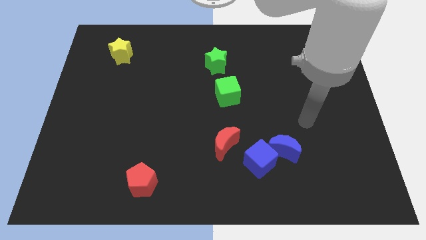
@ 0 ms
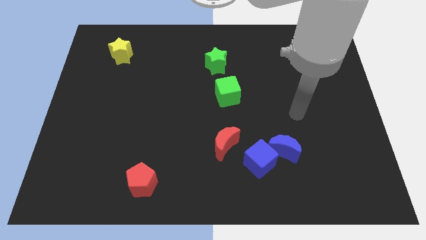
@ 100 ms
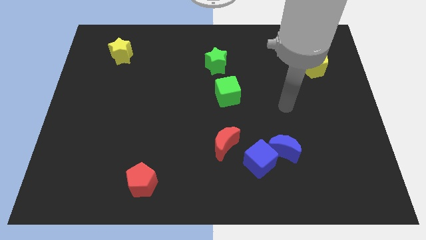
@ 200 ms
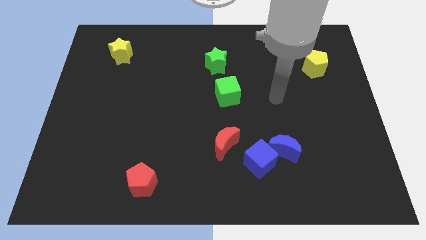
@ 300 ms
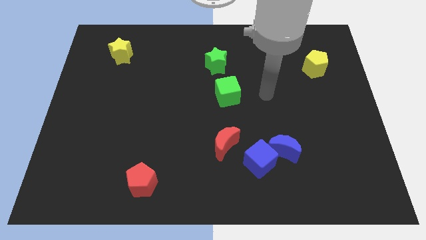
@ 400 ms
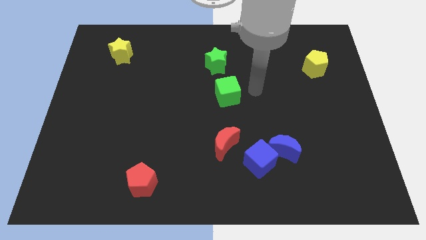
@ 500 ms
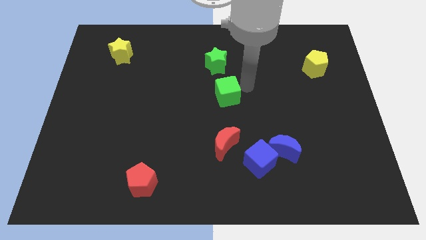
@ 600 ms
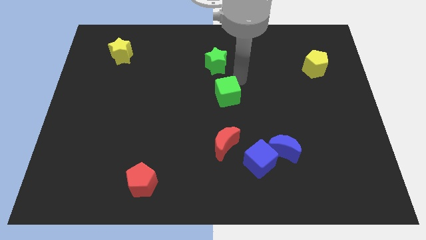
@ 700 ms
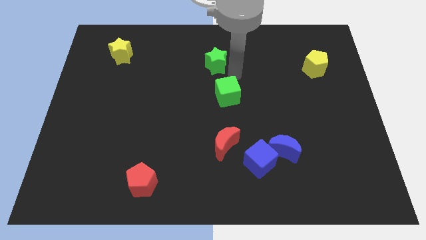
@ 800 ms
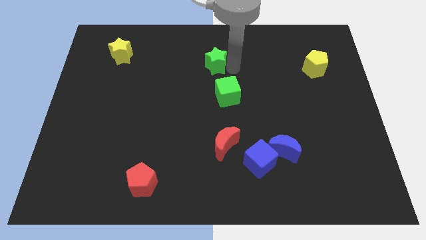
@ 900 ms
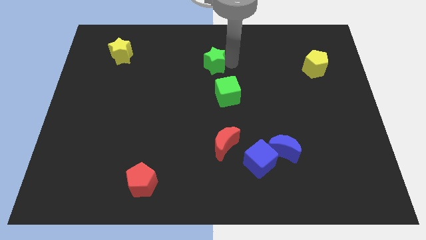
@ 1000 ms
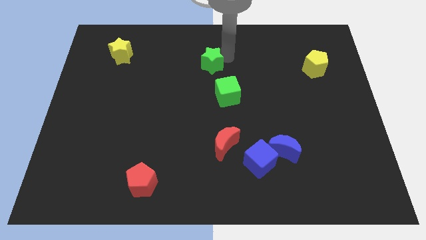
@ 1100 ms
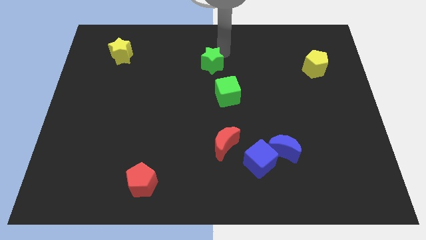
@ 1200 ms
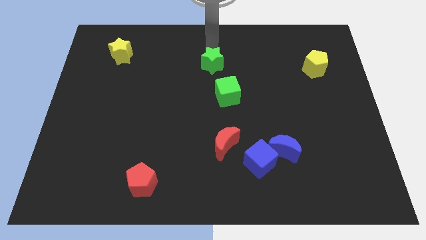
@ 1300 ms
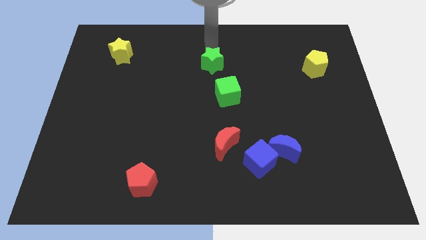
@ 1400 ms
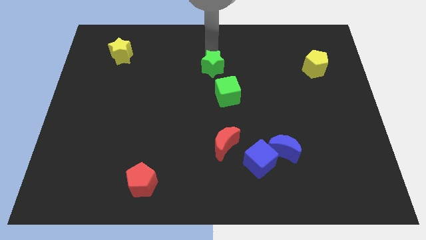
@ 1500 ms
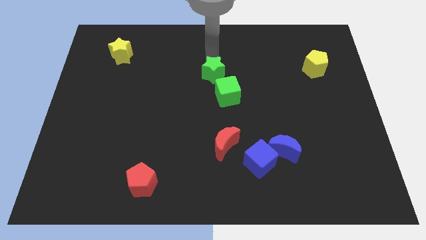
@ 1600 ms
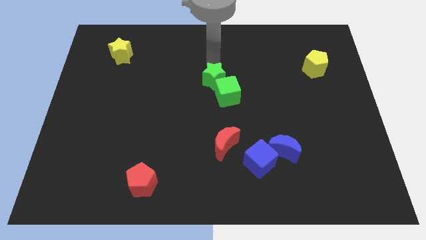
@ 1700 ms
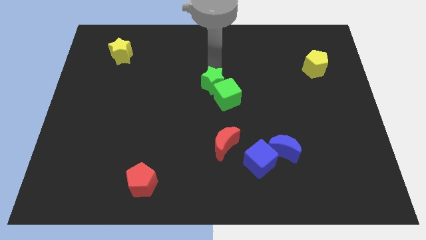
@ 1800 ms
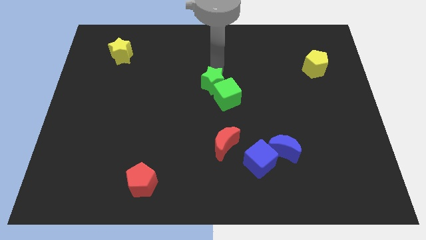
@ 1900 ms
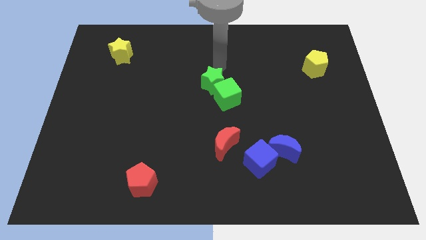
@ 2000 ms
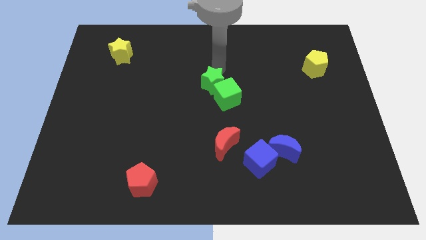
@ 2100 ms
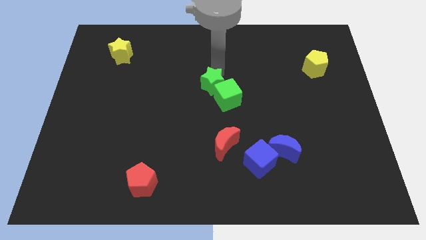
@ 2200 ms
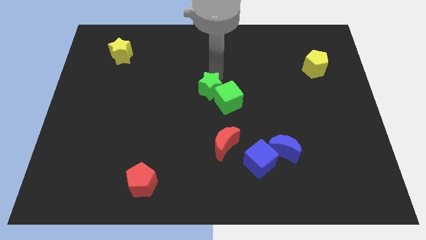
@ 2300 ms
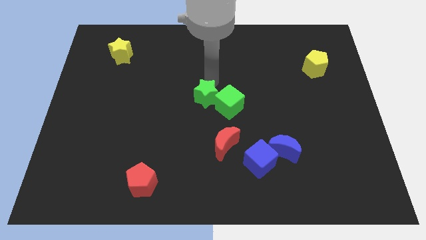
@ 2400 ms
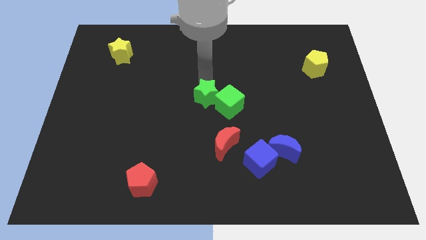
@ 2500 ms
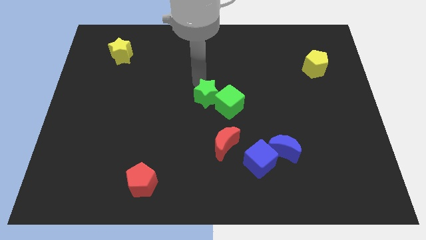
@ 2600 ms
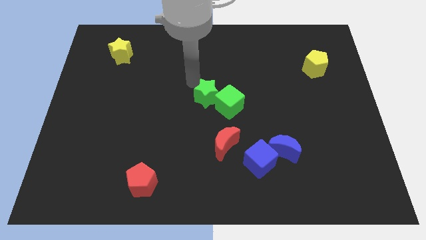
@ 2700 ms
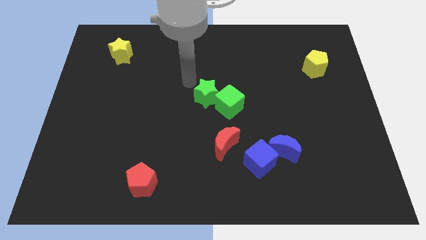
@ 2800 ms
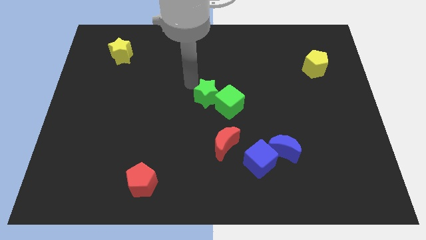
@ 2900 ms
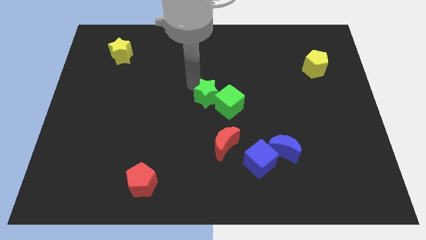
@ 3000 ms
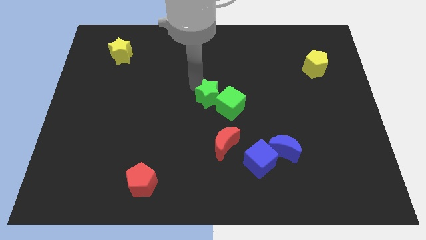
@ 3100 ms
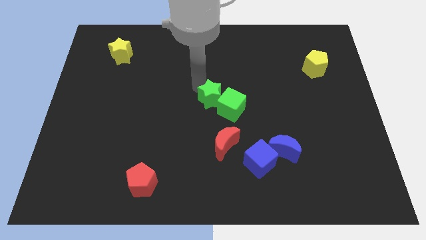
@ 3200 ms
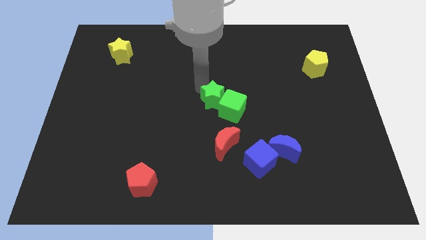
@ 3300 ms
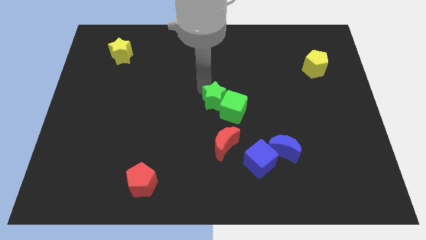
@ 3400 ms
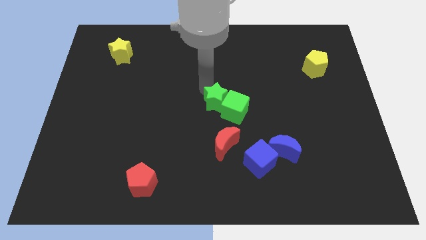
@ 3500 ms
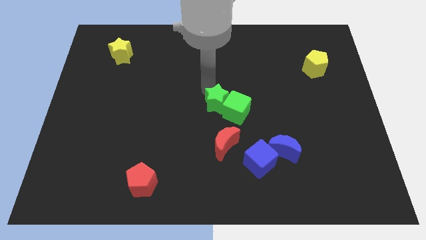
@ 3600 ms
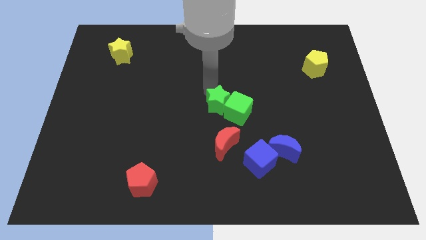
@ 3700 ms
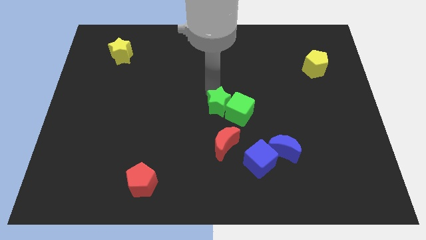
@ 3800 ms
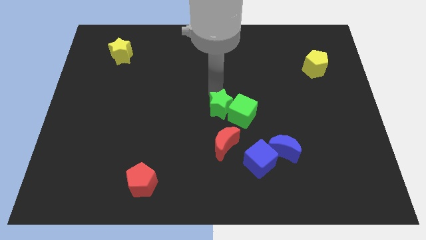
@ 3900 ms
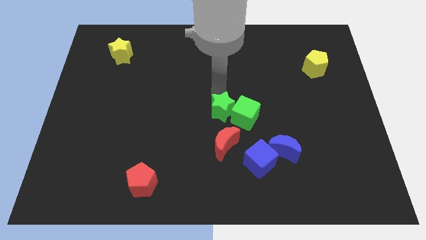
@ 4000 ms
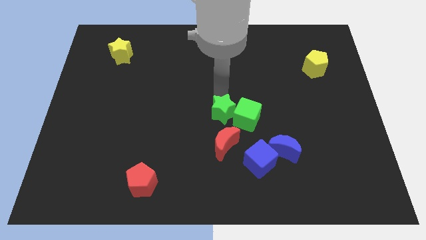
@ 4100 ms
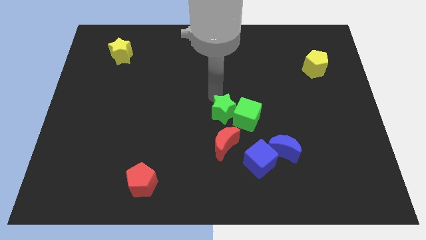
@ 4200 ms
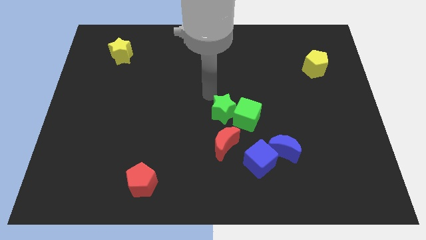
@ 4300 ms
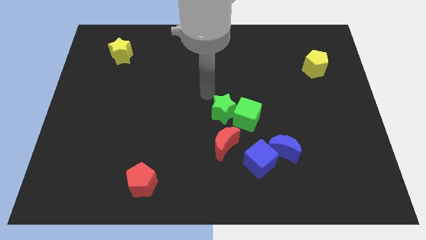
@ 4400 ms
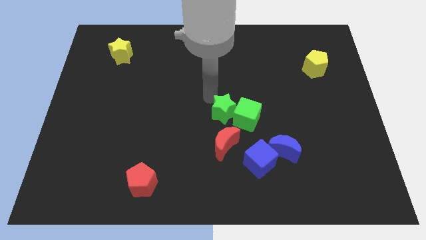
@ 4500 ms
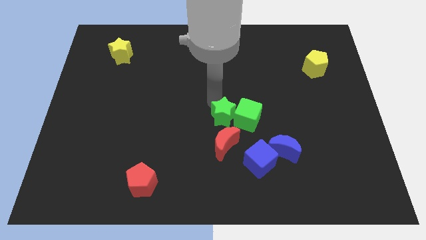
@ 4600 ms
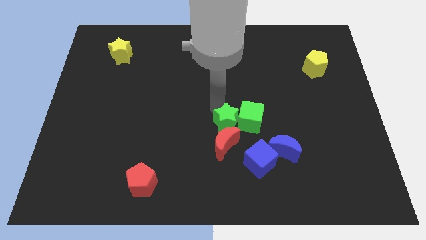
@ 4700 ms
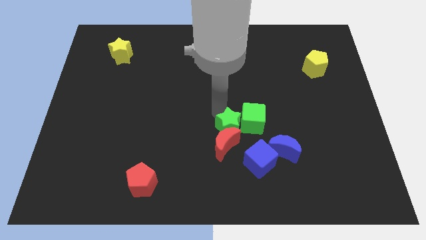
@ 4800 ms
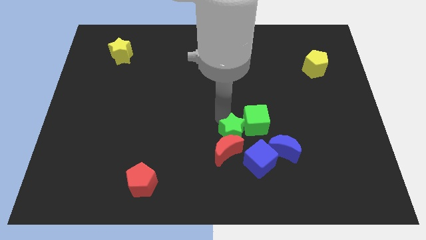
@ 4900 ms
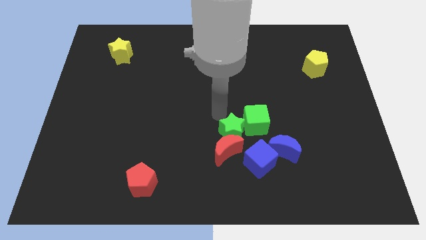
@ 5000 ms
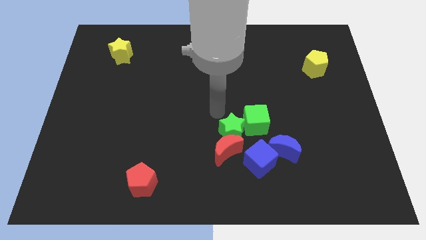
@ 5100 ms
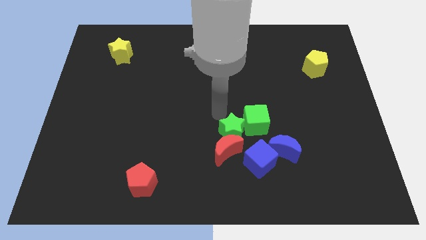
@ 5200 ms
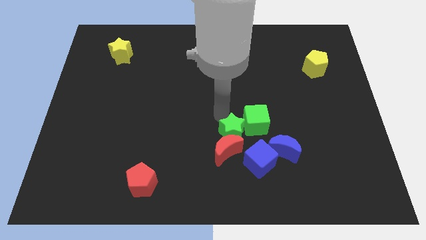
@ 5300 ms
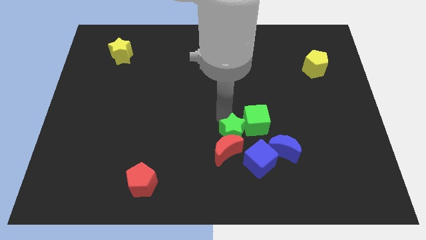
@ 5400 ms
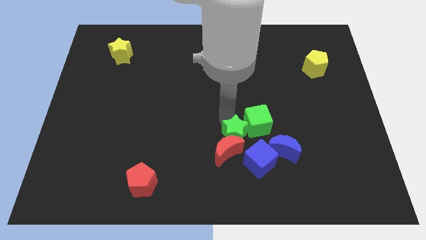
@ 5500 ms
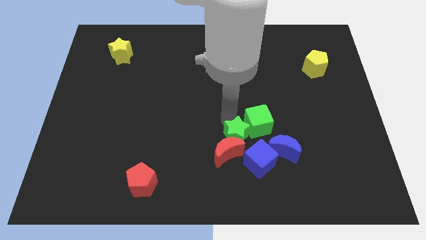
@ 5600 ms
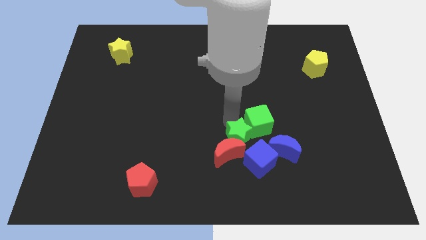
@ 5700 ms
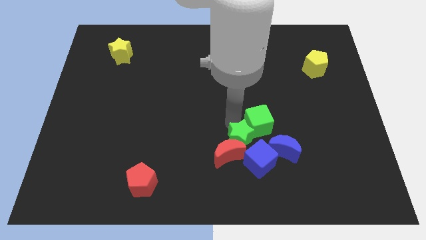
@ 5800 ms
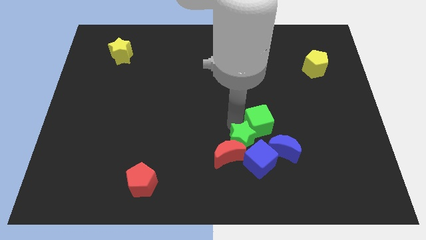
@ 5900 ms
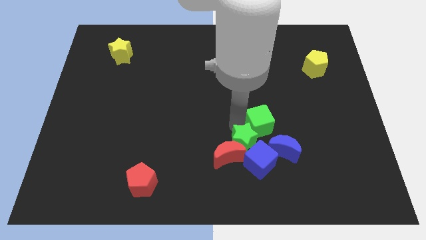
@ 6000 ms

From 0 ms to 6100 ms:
slide the green star close to the blue cube

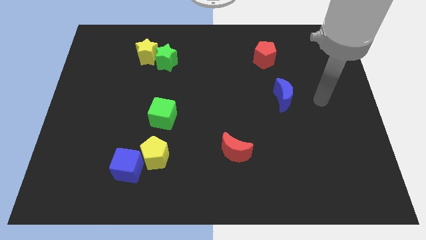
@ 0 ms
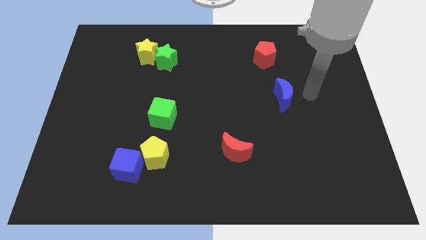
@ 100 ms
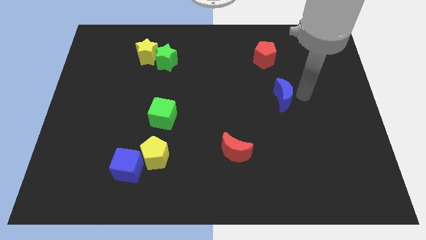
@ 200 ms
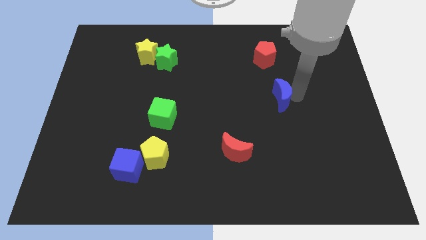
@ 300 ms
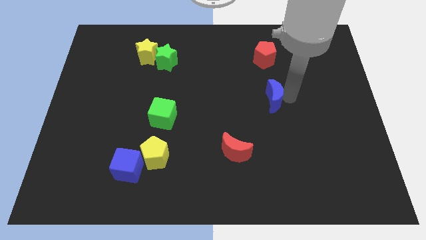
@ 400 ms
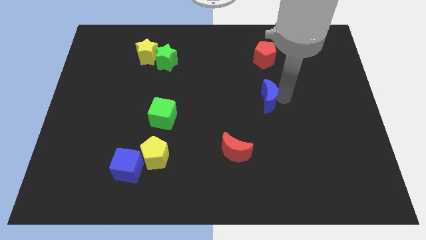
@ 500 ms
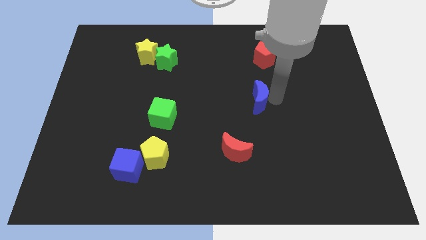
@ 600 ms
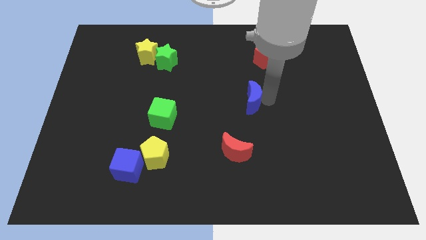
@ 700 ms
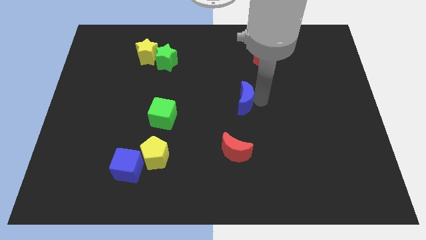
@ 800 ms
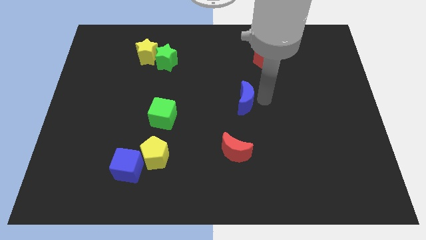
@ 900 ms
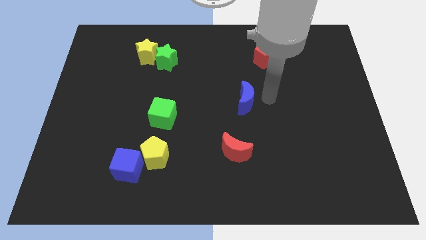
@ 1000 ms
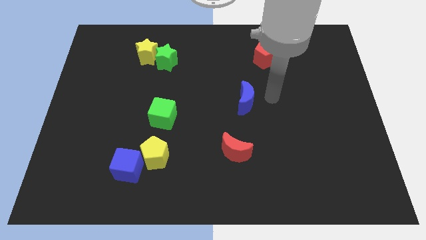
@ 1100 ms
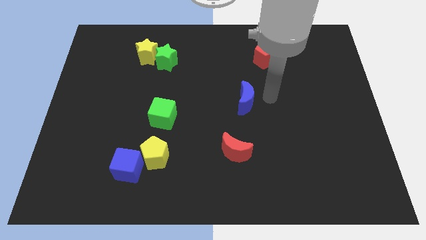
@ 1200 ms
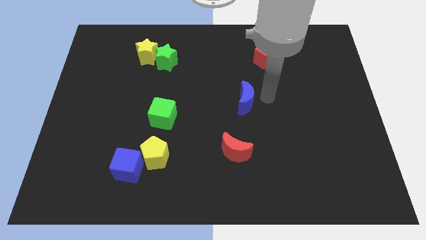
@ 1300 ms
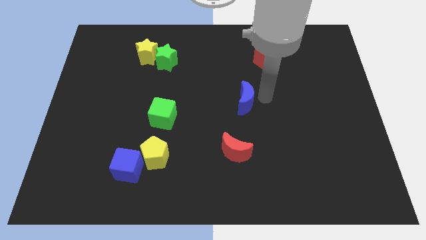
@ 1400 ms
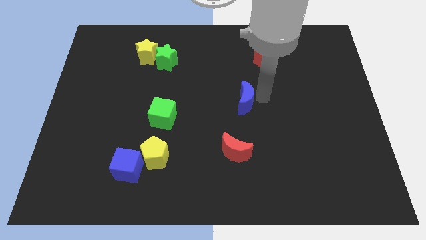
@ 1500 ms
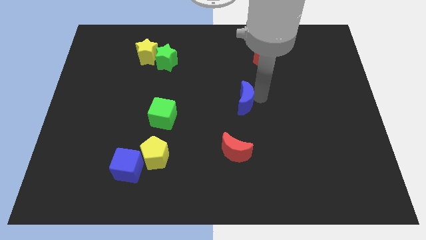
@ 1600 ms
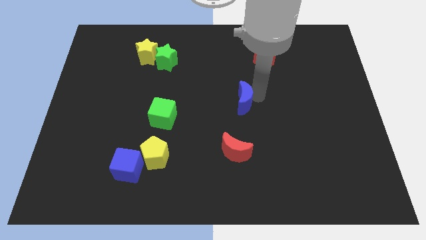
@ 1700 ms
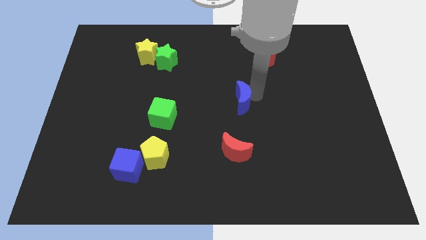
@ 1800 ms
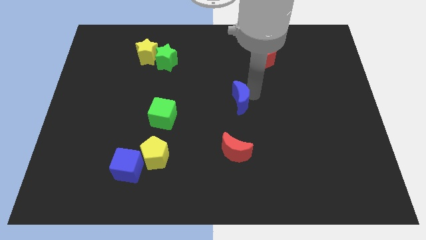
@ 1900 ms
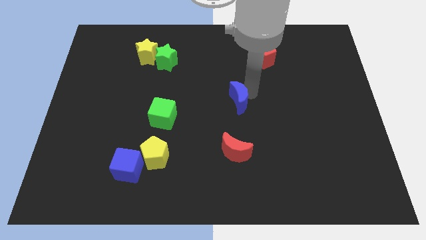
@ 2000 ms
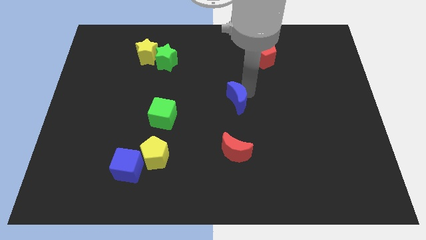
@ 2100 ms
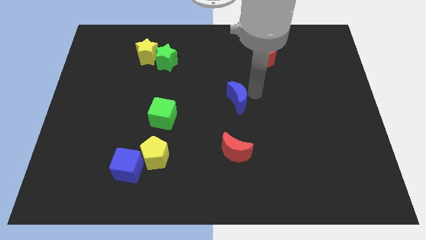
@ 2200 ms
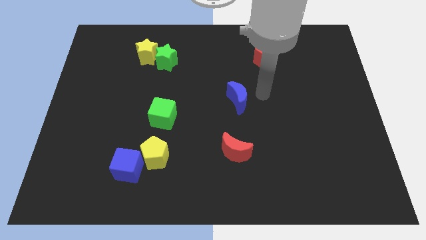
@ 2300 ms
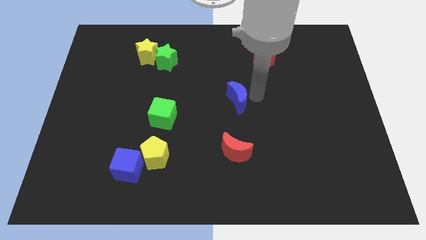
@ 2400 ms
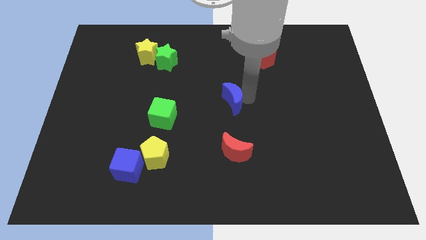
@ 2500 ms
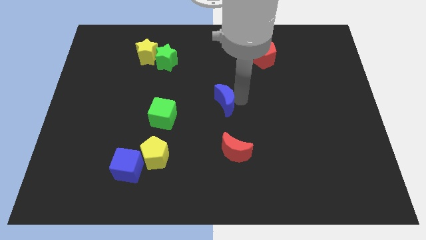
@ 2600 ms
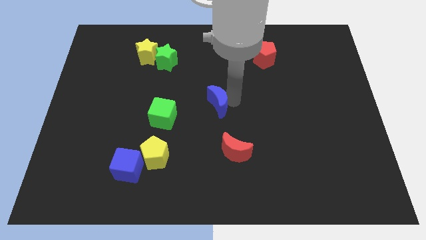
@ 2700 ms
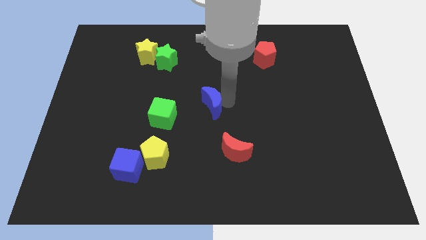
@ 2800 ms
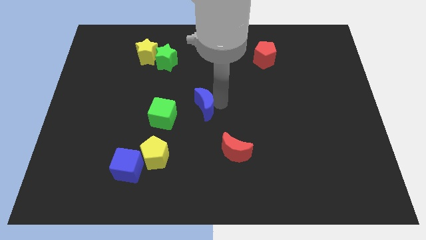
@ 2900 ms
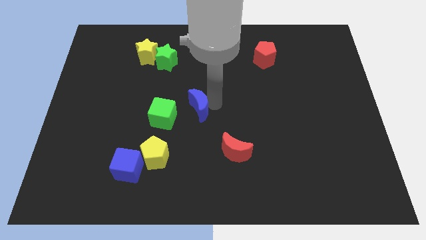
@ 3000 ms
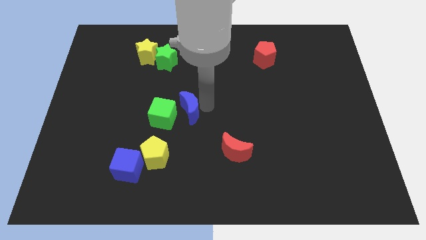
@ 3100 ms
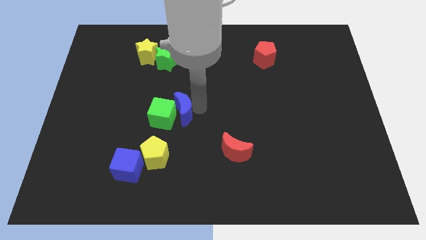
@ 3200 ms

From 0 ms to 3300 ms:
put the blue moon next to the green cube
